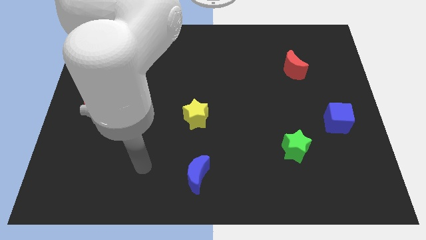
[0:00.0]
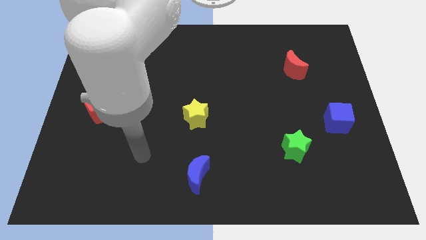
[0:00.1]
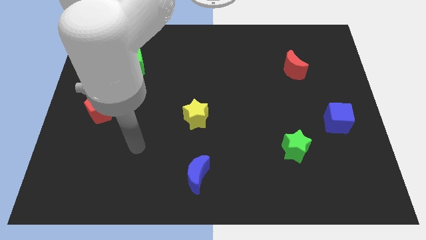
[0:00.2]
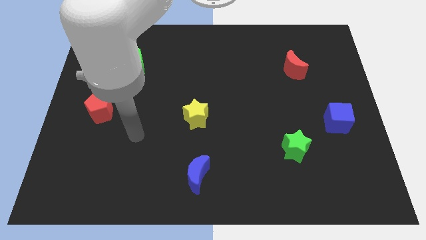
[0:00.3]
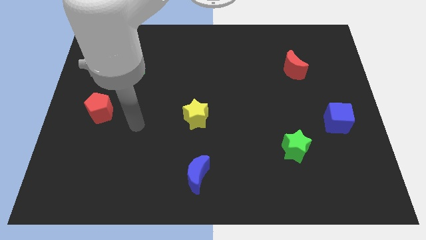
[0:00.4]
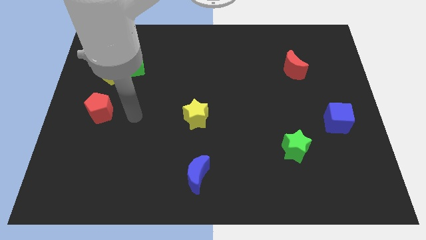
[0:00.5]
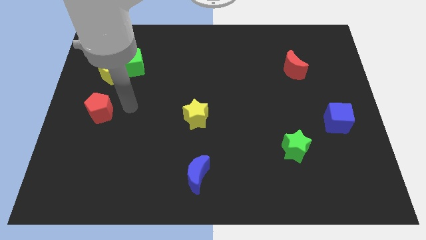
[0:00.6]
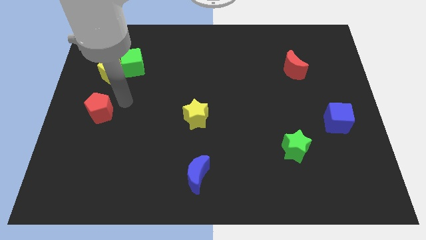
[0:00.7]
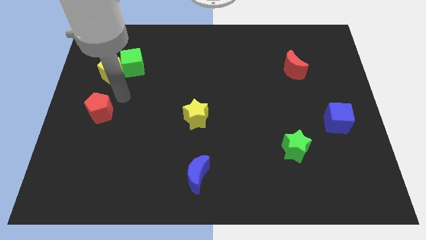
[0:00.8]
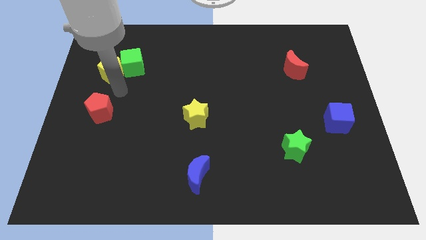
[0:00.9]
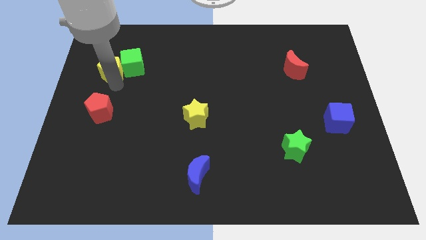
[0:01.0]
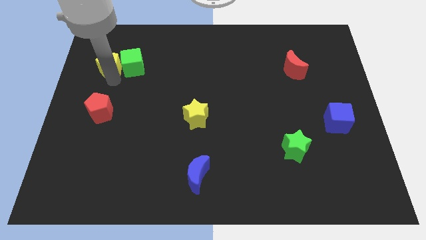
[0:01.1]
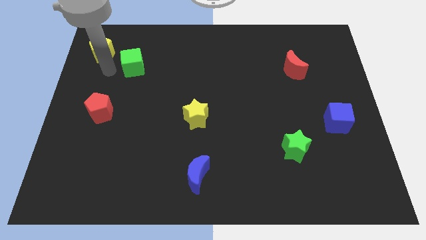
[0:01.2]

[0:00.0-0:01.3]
separate the green cube from the yellow pentagon

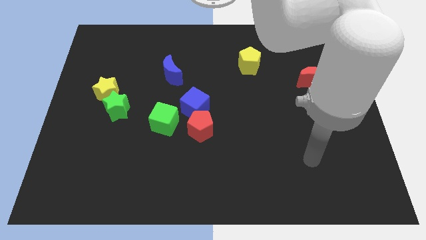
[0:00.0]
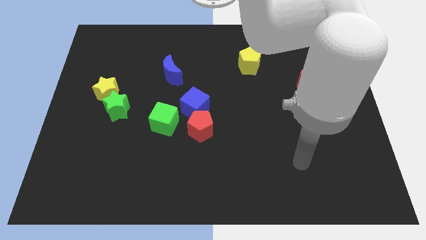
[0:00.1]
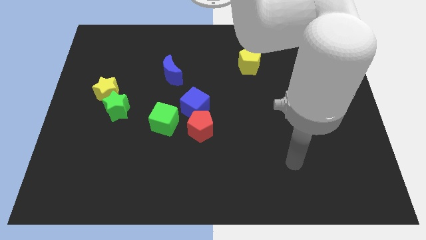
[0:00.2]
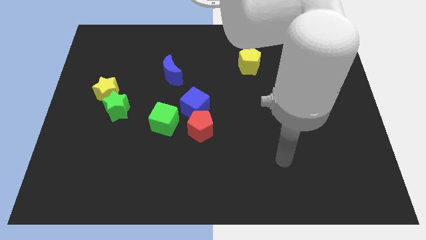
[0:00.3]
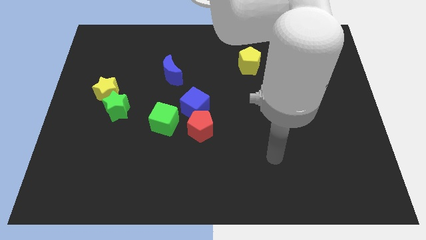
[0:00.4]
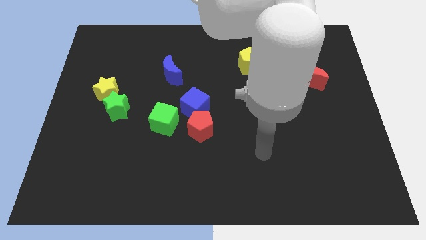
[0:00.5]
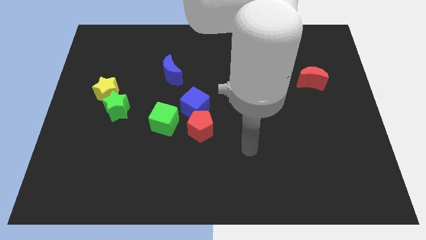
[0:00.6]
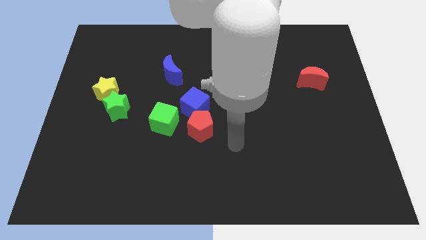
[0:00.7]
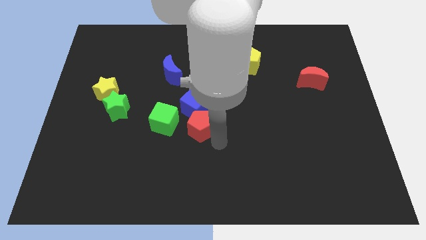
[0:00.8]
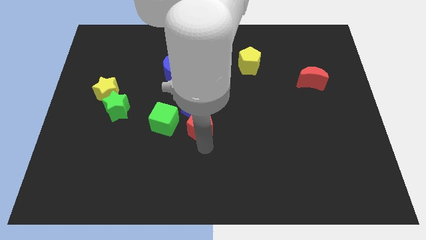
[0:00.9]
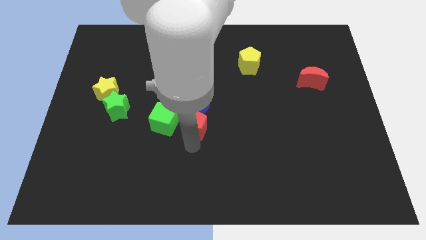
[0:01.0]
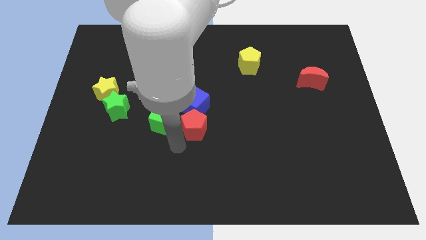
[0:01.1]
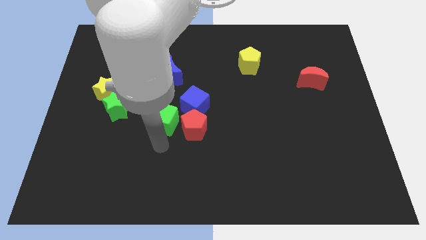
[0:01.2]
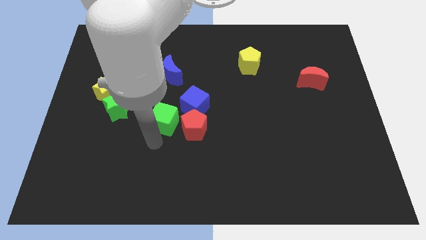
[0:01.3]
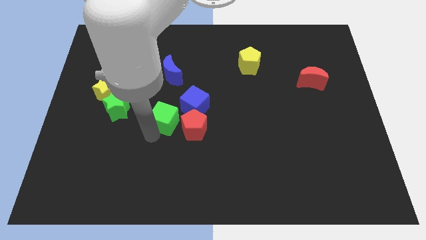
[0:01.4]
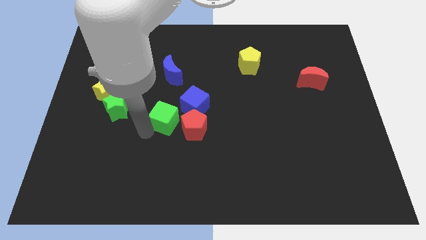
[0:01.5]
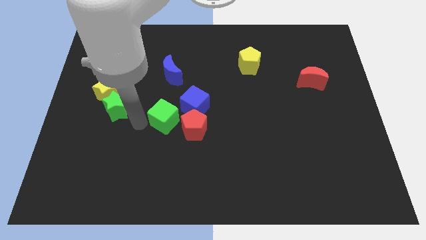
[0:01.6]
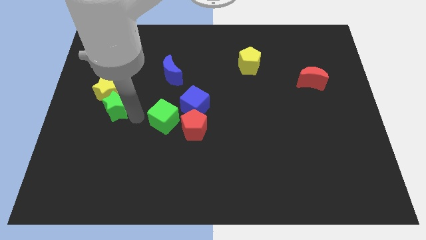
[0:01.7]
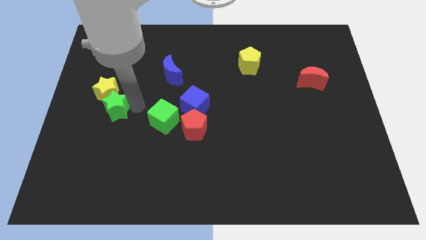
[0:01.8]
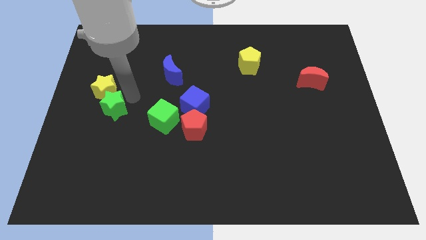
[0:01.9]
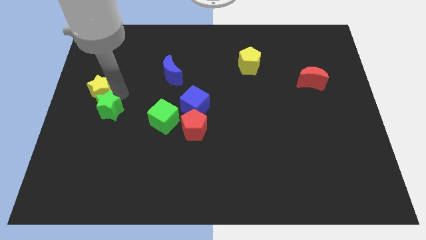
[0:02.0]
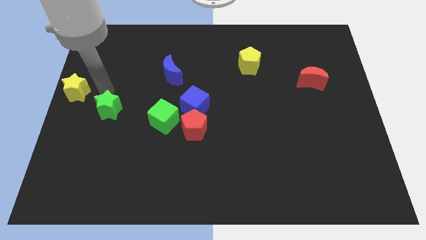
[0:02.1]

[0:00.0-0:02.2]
pull the green star apart from the yellow star

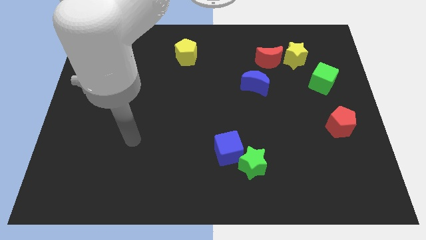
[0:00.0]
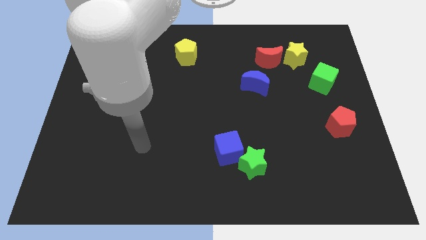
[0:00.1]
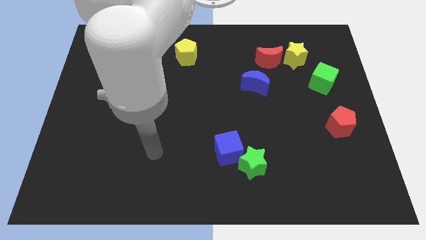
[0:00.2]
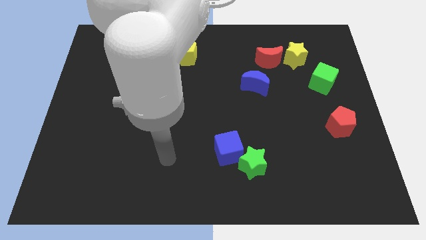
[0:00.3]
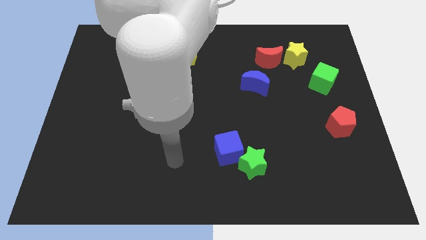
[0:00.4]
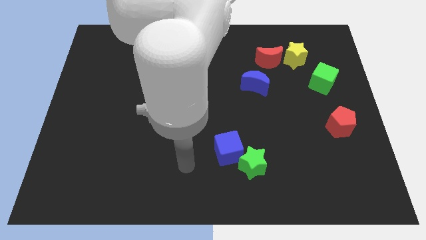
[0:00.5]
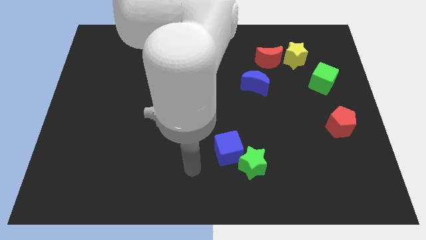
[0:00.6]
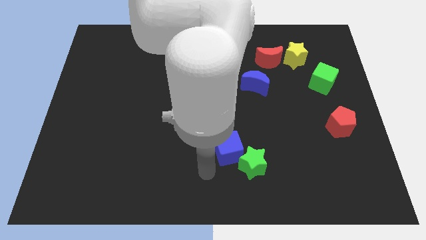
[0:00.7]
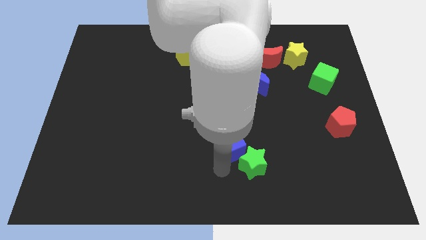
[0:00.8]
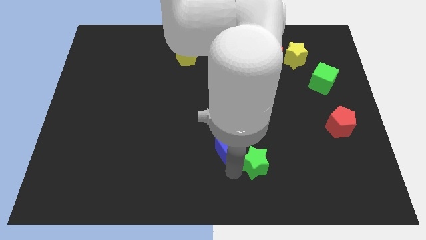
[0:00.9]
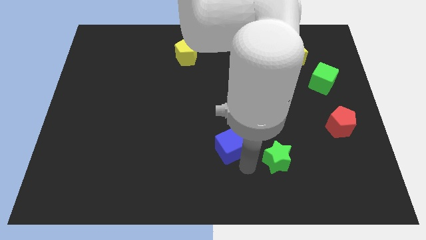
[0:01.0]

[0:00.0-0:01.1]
pull the blue cube apart from the green star

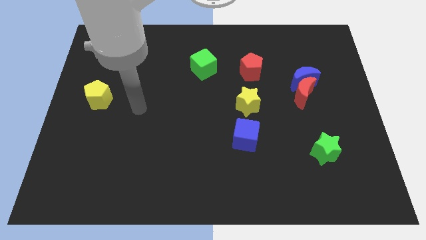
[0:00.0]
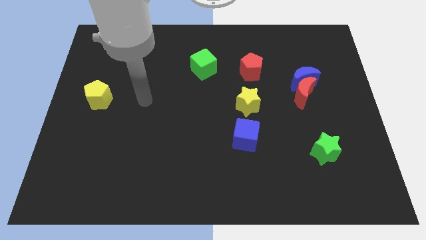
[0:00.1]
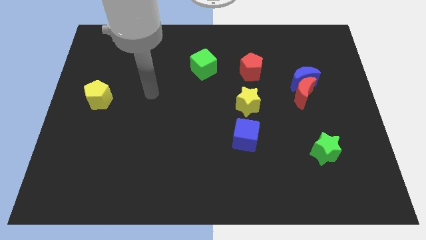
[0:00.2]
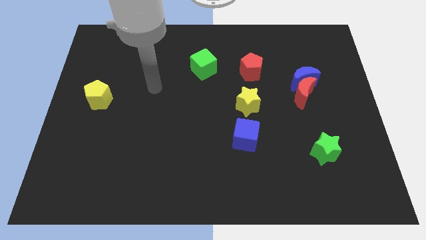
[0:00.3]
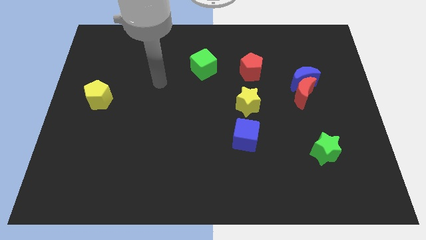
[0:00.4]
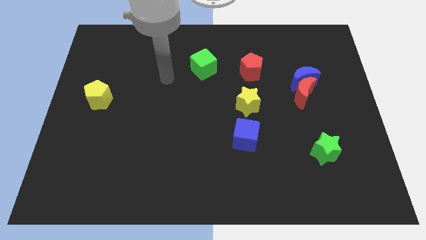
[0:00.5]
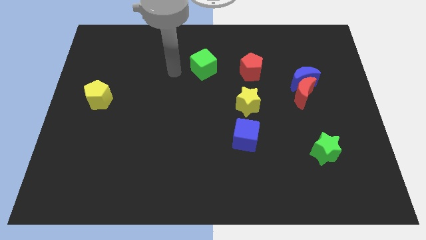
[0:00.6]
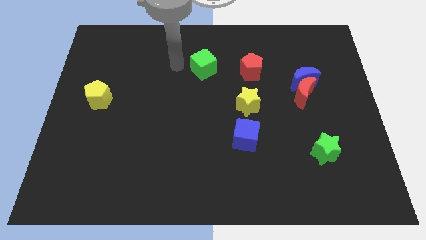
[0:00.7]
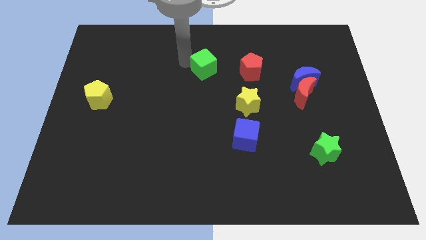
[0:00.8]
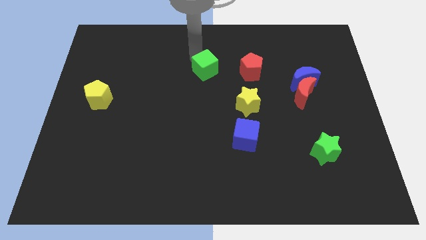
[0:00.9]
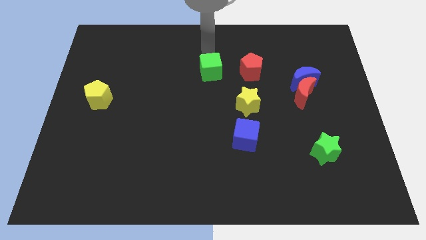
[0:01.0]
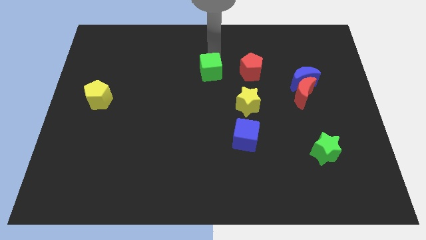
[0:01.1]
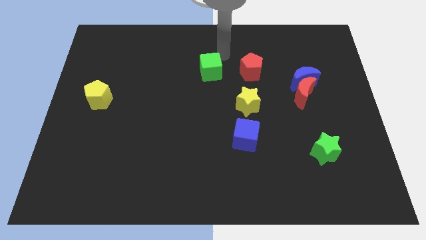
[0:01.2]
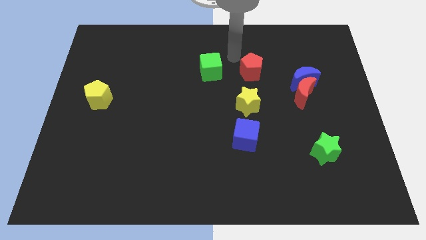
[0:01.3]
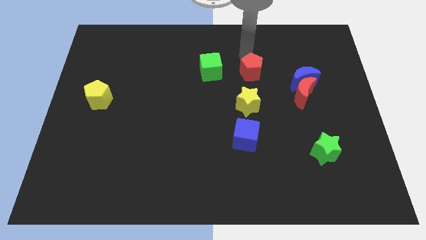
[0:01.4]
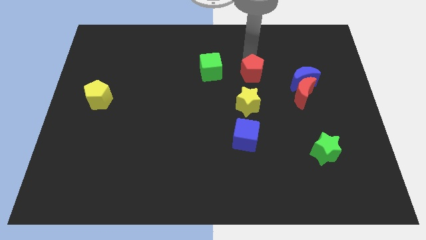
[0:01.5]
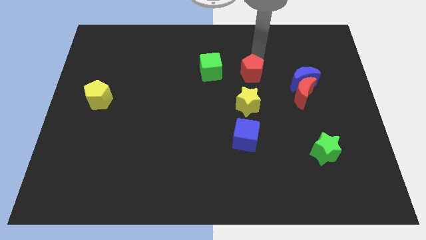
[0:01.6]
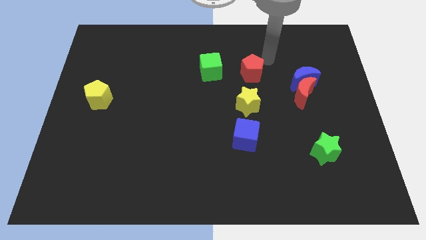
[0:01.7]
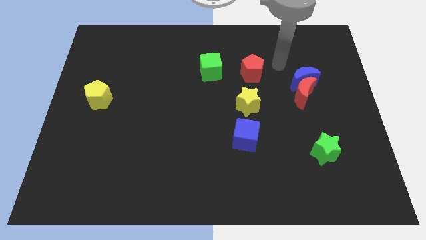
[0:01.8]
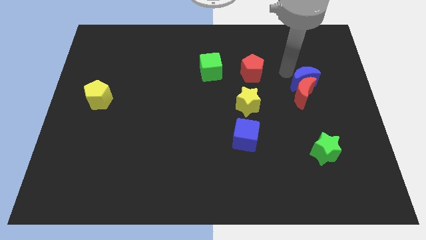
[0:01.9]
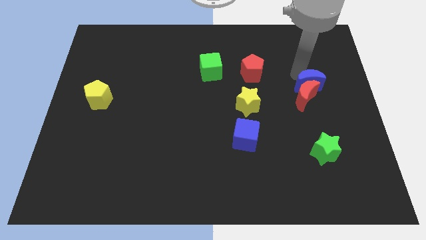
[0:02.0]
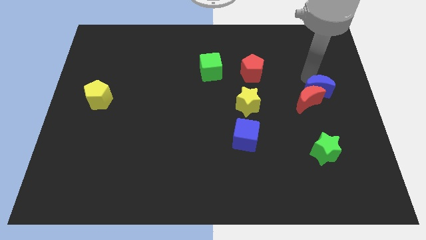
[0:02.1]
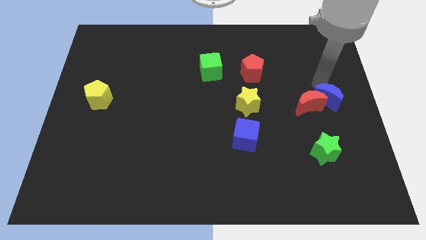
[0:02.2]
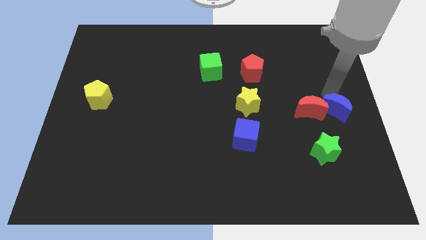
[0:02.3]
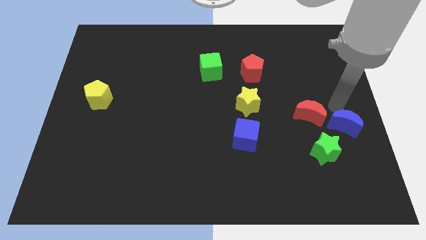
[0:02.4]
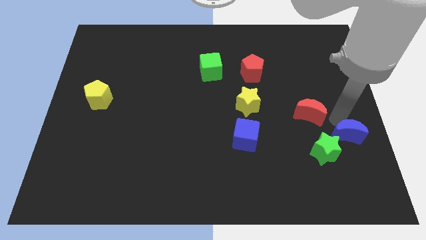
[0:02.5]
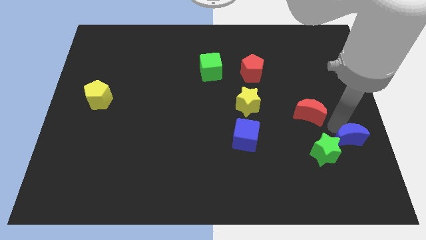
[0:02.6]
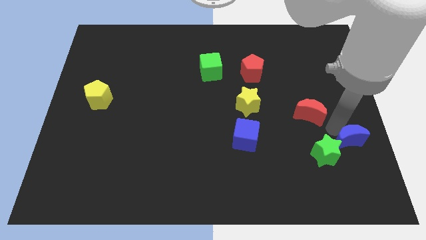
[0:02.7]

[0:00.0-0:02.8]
pull the red moon apart from the blue moon

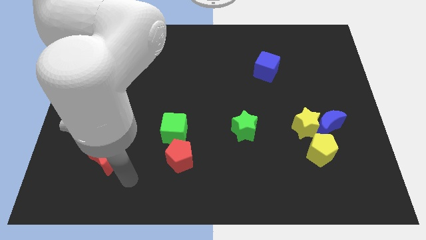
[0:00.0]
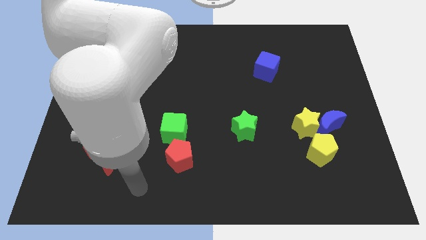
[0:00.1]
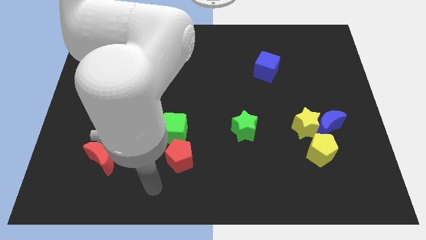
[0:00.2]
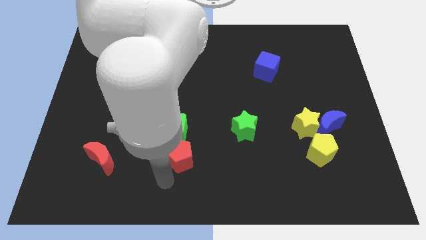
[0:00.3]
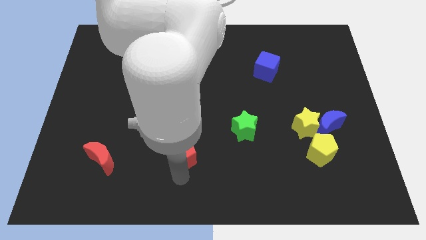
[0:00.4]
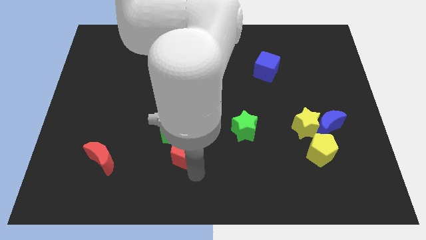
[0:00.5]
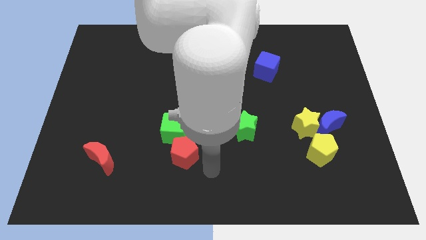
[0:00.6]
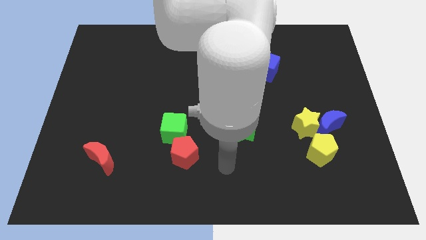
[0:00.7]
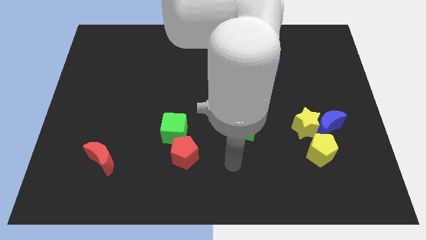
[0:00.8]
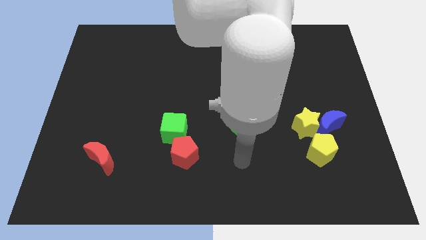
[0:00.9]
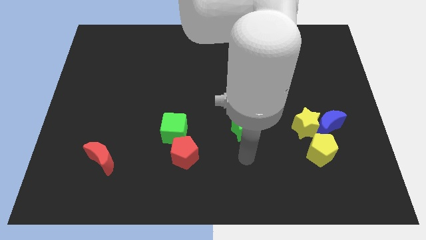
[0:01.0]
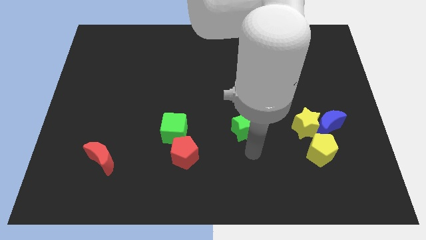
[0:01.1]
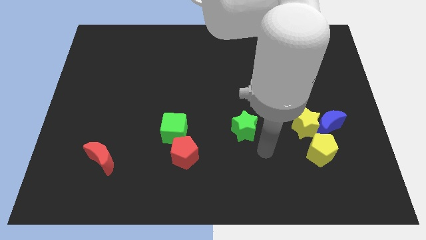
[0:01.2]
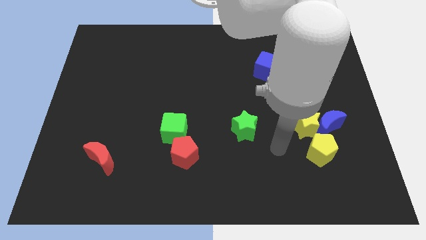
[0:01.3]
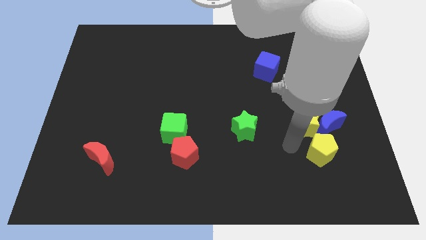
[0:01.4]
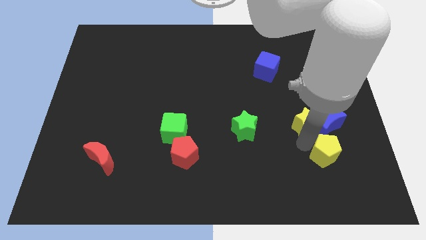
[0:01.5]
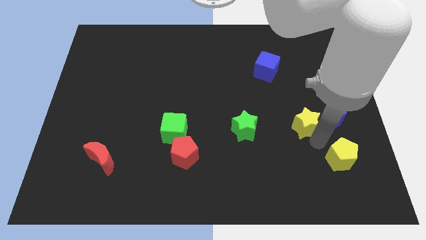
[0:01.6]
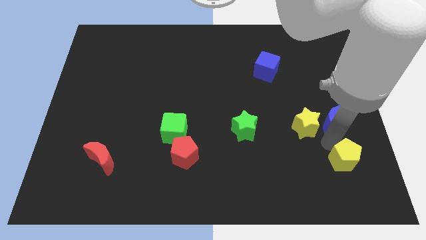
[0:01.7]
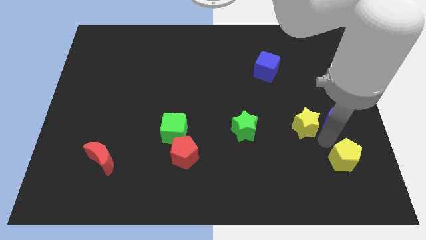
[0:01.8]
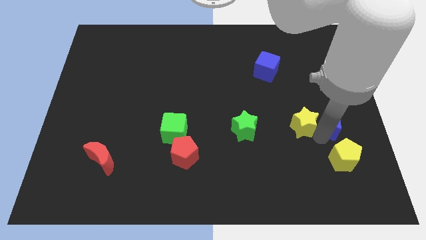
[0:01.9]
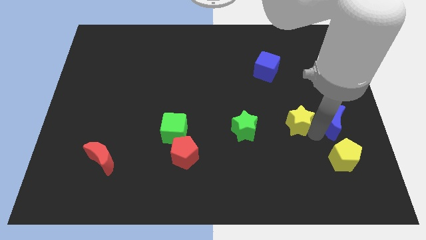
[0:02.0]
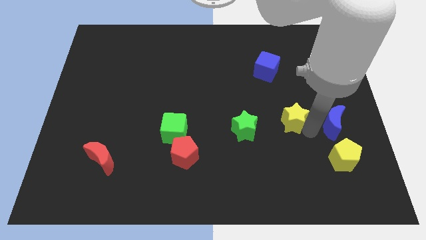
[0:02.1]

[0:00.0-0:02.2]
pull the yellow star apart from the blue moon and yellow pentagon
